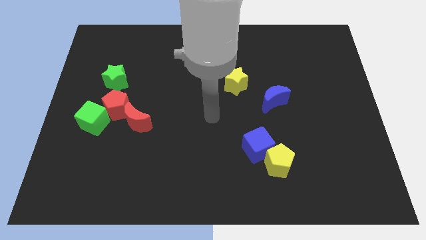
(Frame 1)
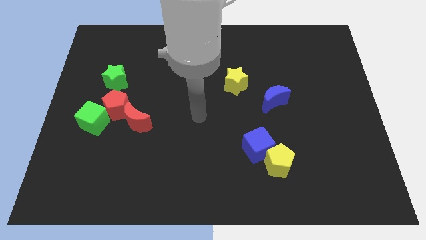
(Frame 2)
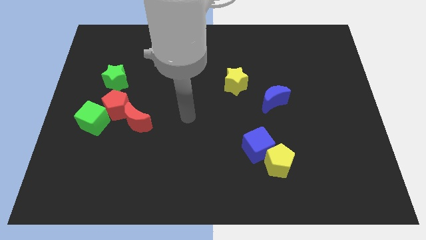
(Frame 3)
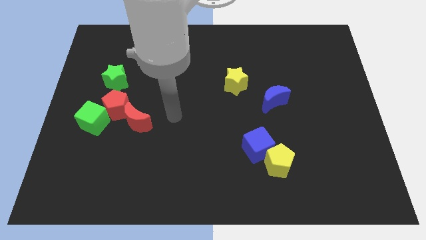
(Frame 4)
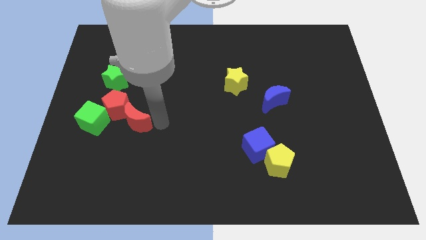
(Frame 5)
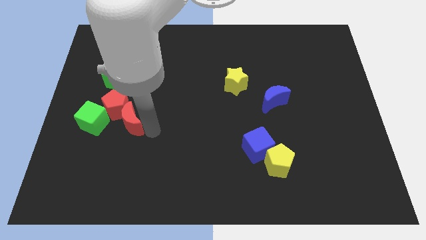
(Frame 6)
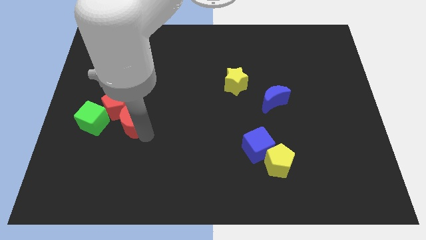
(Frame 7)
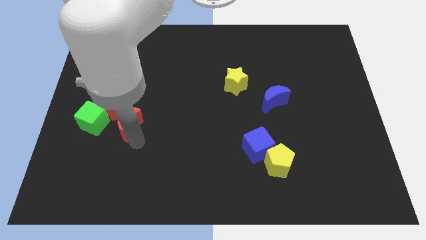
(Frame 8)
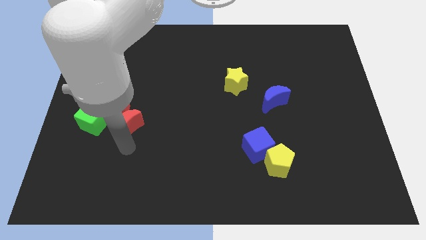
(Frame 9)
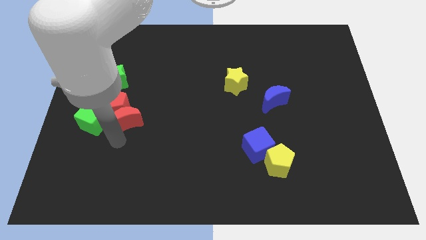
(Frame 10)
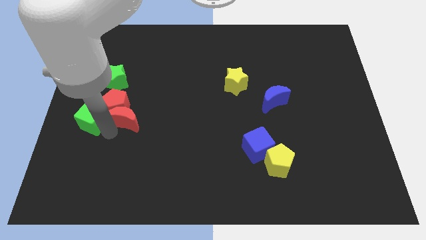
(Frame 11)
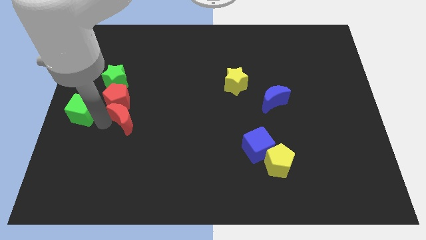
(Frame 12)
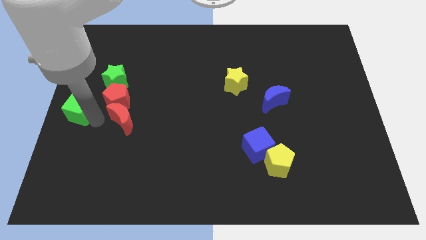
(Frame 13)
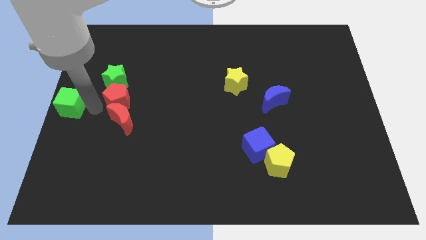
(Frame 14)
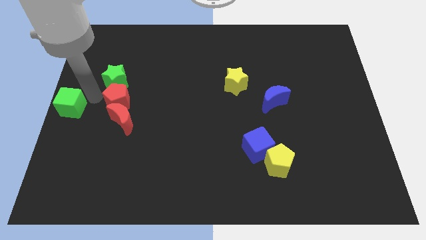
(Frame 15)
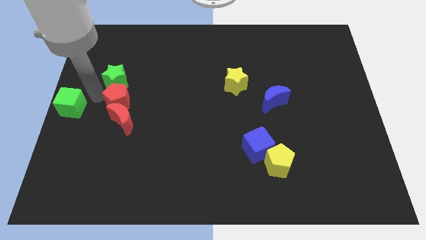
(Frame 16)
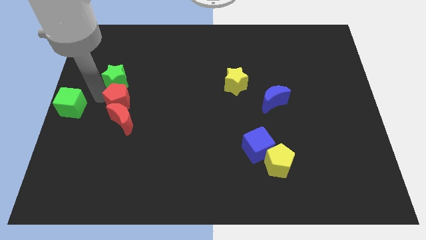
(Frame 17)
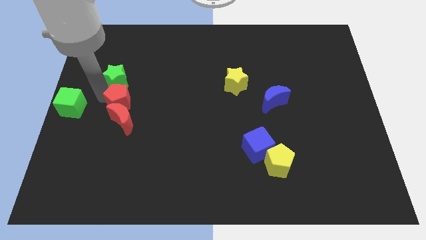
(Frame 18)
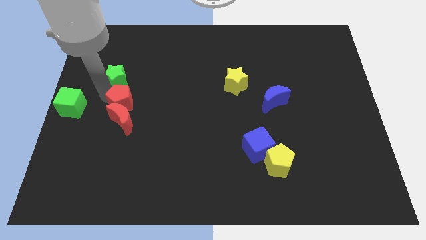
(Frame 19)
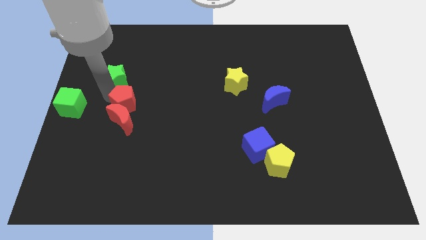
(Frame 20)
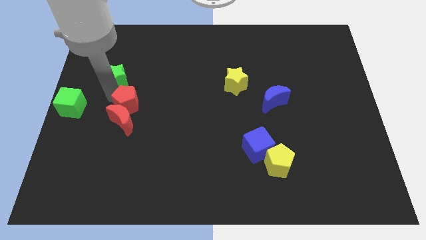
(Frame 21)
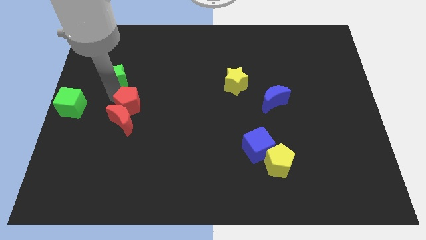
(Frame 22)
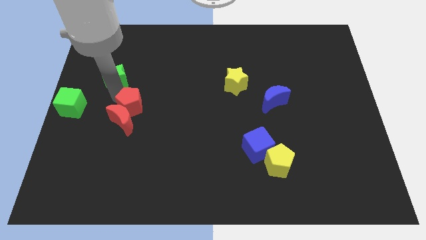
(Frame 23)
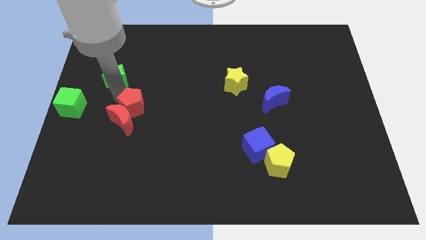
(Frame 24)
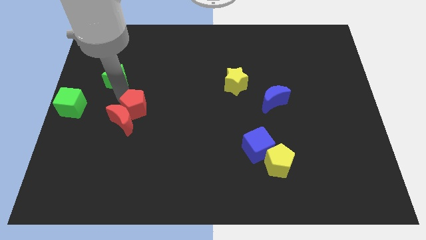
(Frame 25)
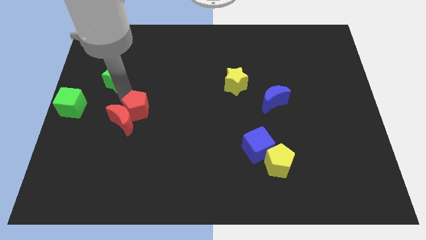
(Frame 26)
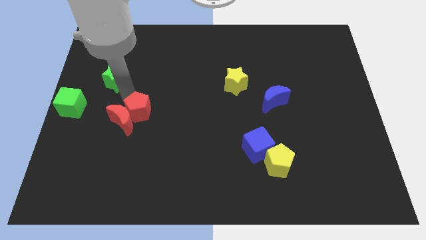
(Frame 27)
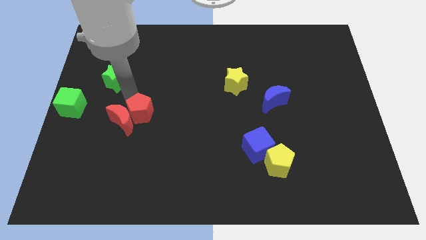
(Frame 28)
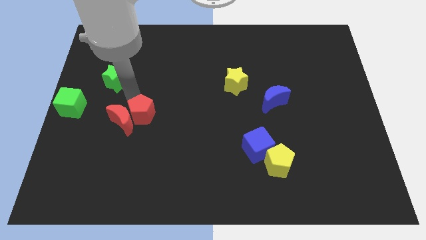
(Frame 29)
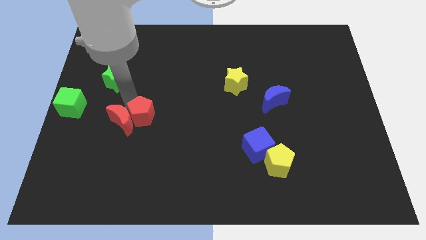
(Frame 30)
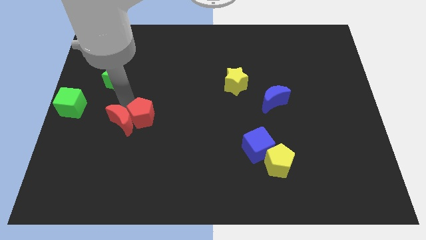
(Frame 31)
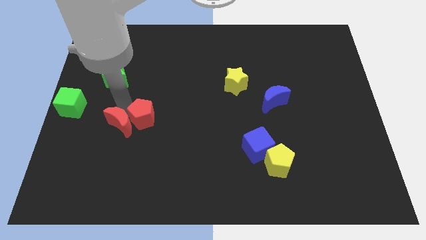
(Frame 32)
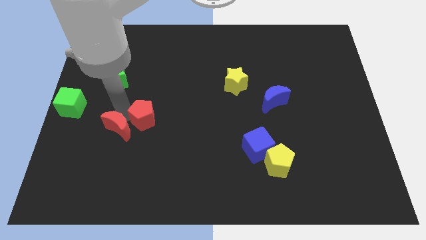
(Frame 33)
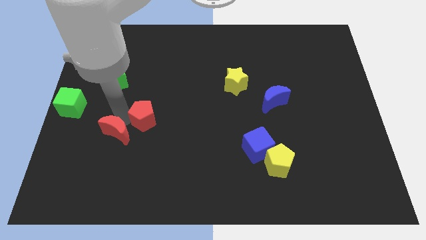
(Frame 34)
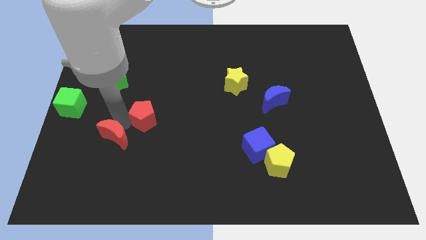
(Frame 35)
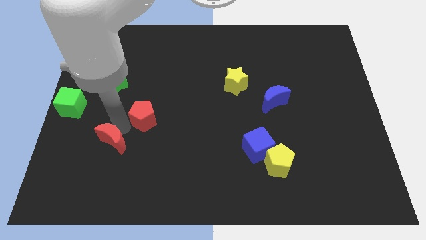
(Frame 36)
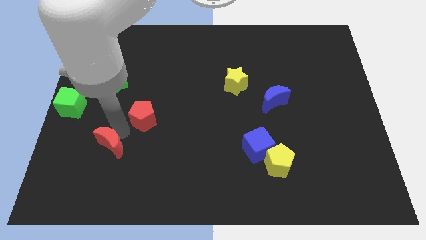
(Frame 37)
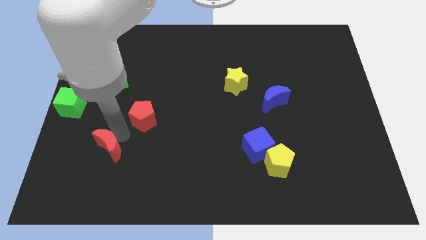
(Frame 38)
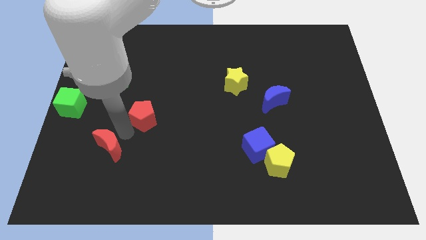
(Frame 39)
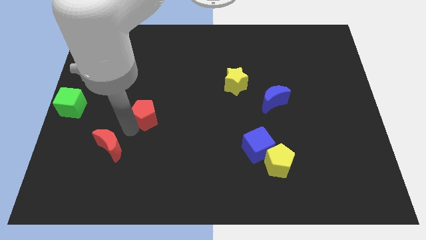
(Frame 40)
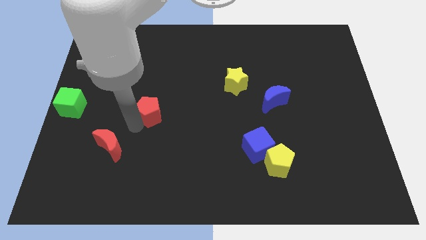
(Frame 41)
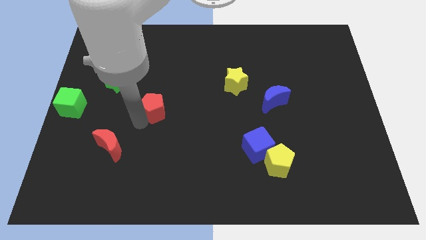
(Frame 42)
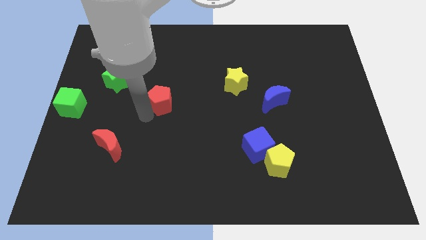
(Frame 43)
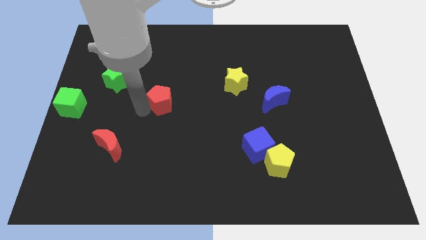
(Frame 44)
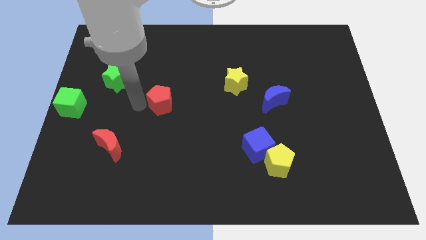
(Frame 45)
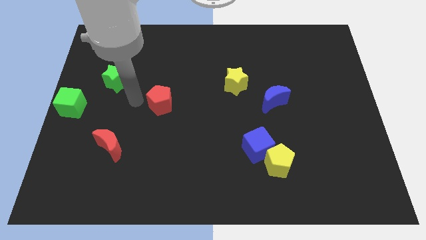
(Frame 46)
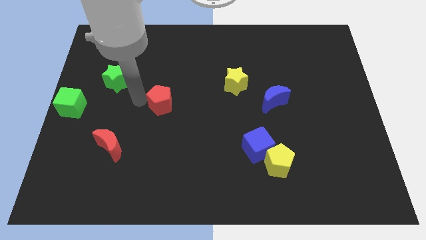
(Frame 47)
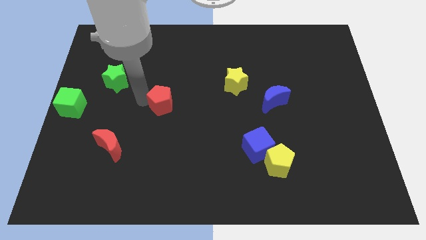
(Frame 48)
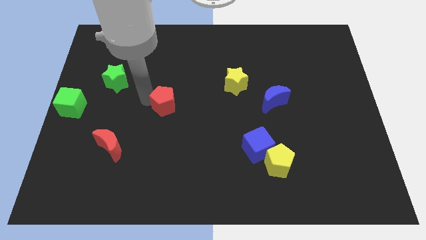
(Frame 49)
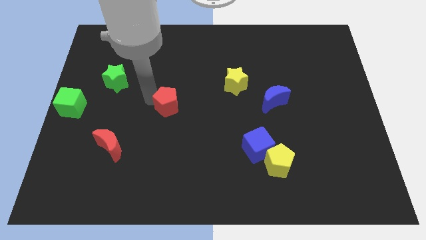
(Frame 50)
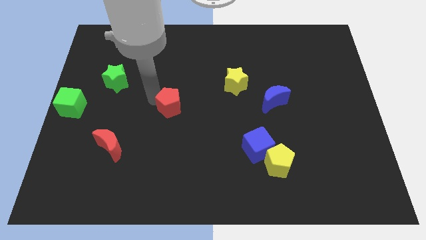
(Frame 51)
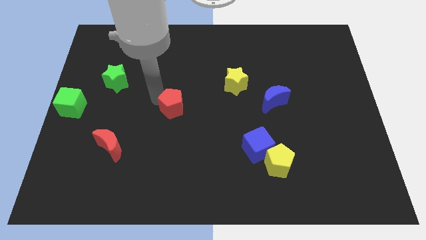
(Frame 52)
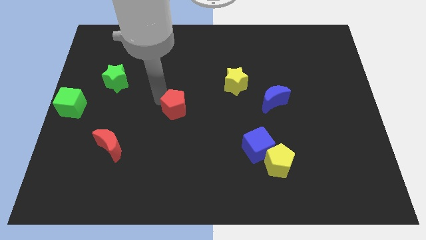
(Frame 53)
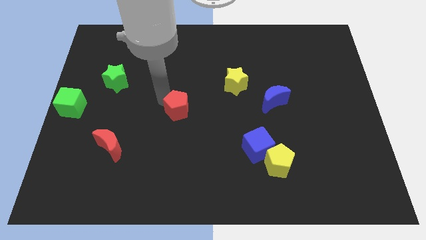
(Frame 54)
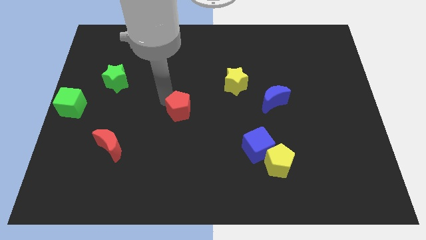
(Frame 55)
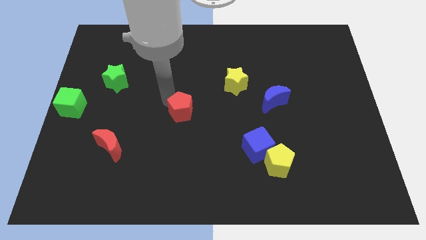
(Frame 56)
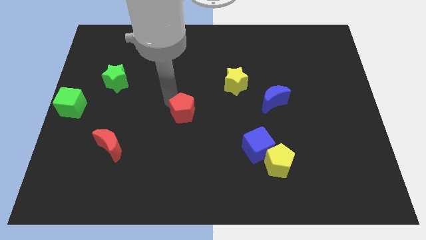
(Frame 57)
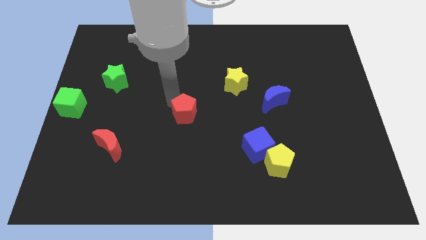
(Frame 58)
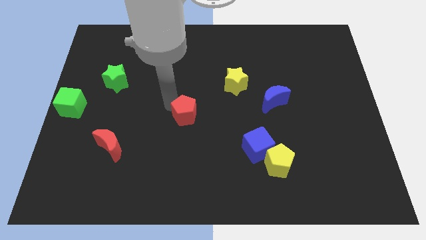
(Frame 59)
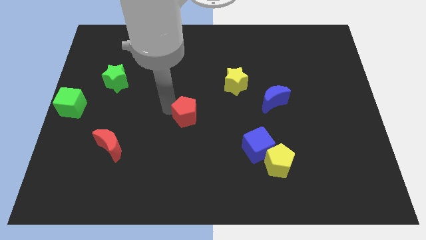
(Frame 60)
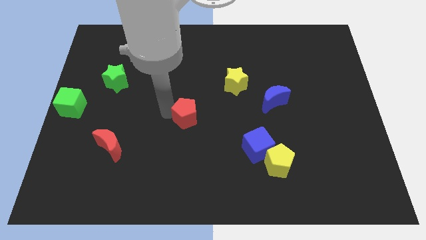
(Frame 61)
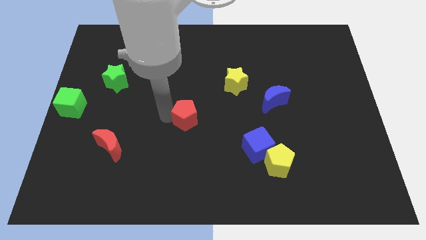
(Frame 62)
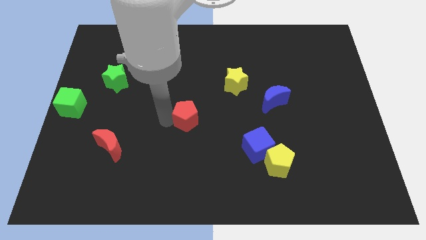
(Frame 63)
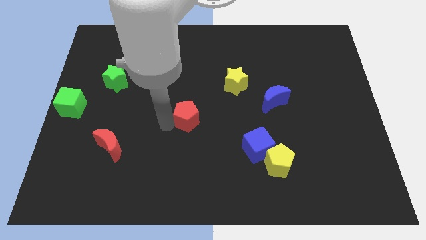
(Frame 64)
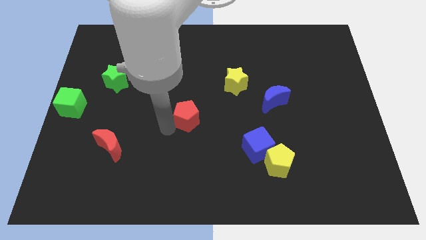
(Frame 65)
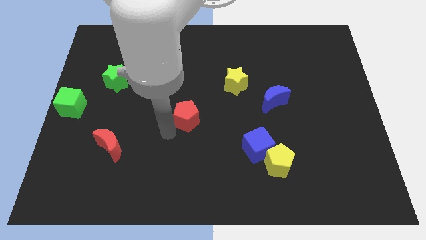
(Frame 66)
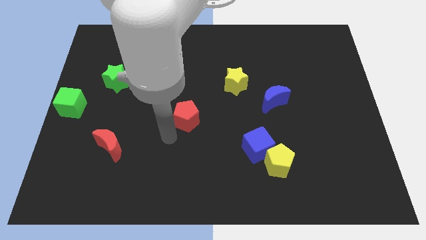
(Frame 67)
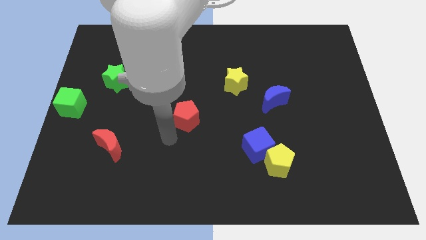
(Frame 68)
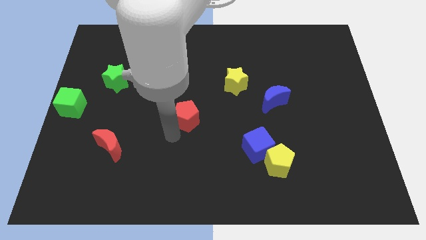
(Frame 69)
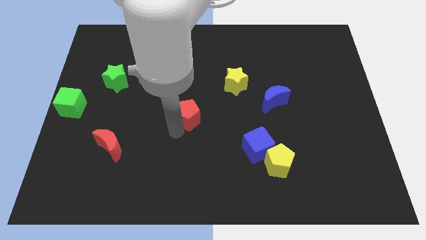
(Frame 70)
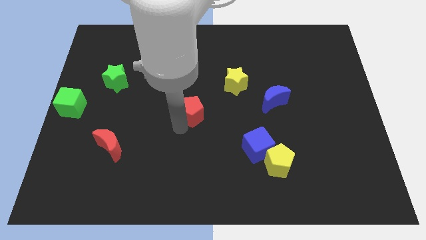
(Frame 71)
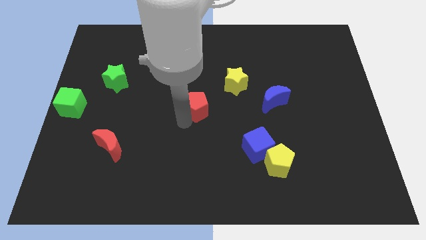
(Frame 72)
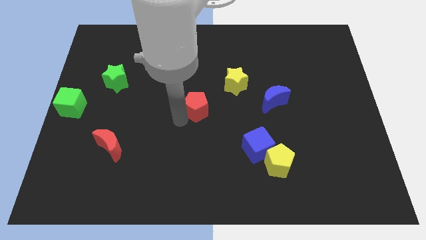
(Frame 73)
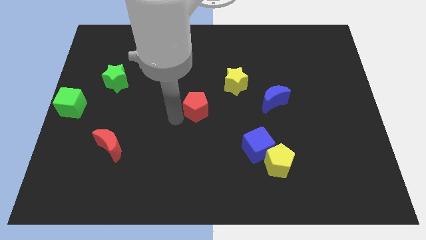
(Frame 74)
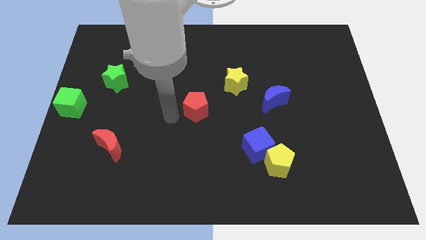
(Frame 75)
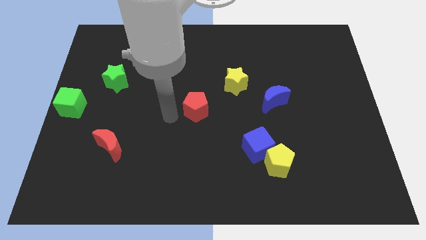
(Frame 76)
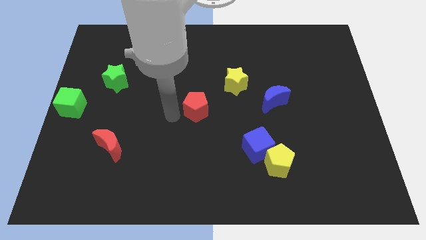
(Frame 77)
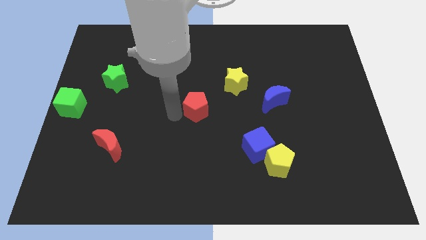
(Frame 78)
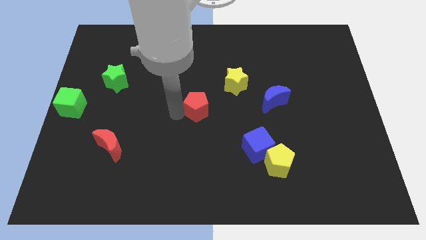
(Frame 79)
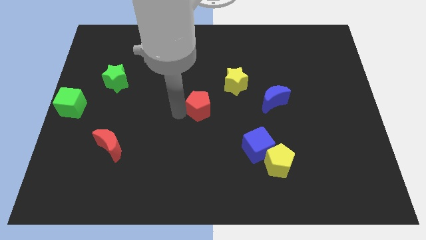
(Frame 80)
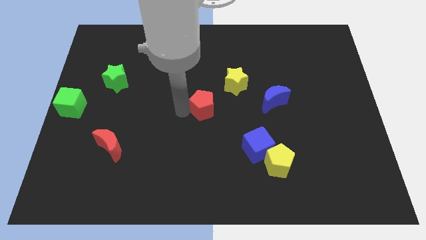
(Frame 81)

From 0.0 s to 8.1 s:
move the red pentagon to the right
